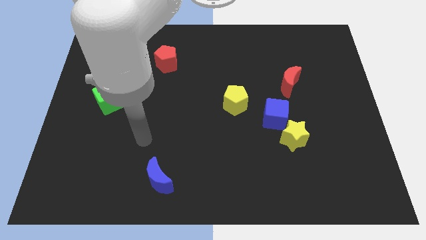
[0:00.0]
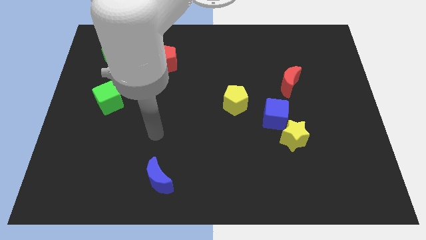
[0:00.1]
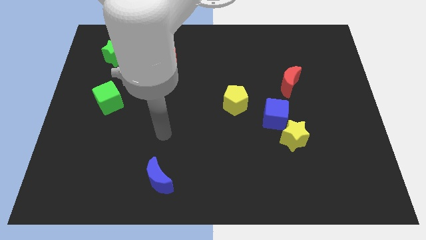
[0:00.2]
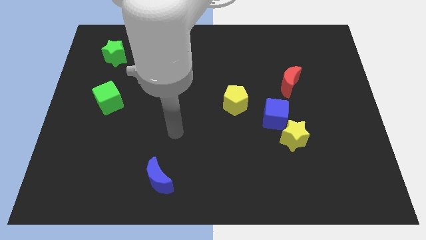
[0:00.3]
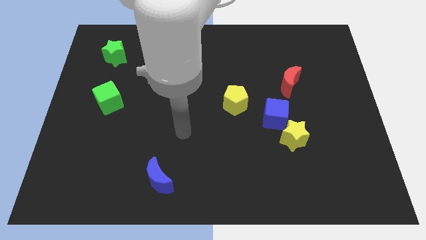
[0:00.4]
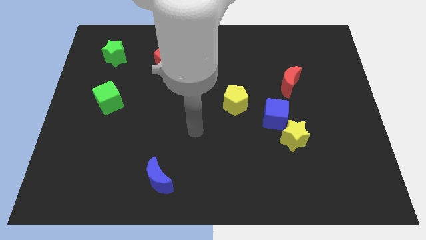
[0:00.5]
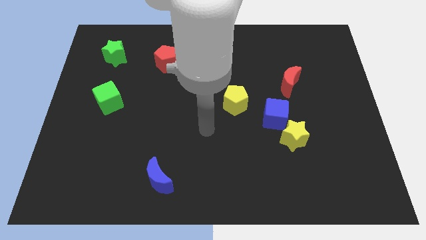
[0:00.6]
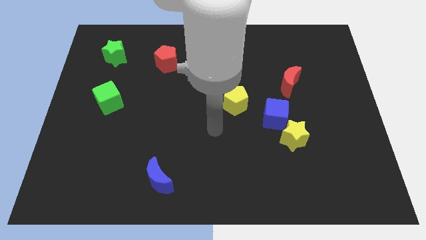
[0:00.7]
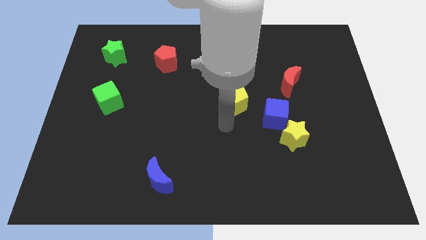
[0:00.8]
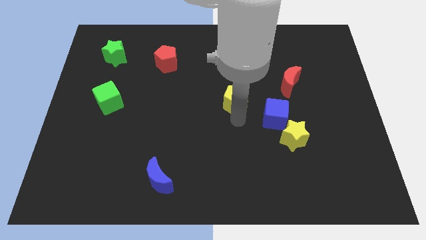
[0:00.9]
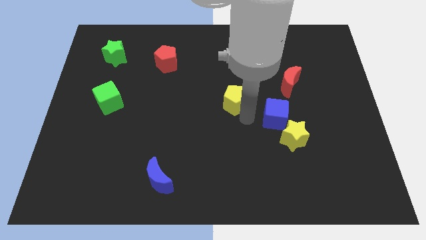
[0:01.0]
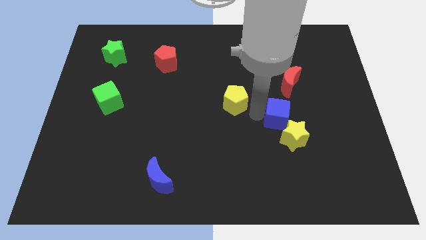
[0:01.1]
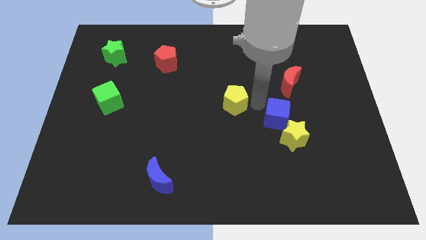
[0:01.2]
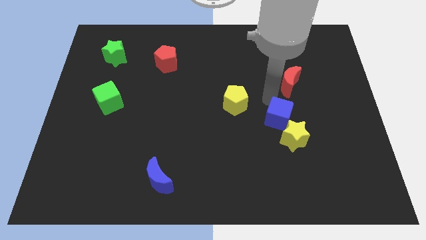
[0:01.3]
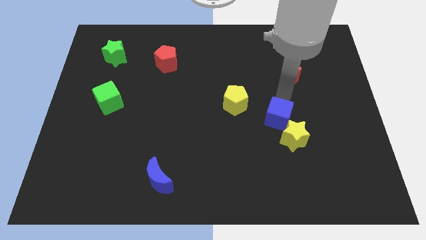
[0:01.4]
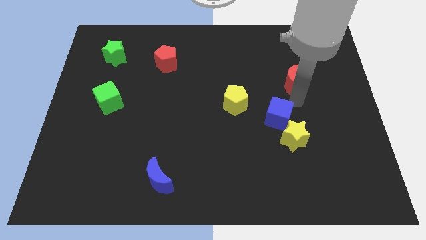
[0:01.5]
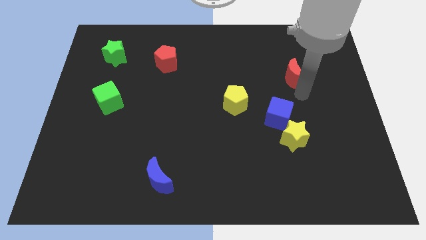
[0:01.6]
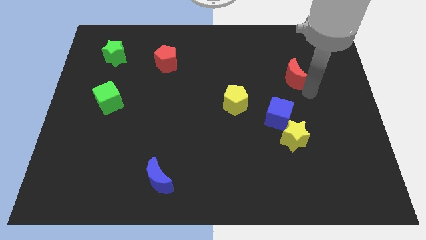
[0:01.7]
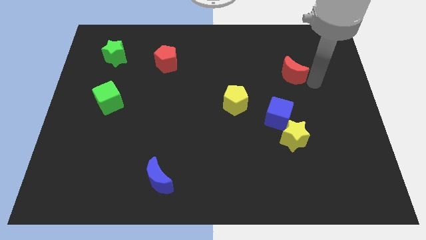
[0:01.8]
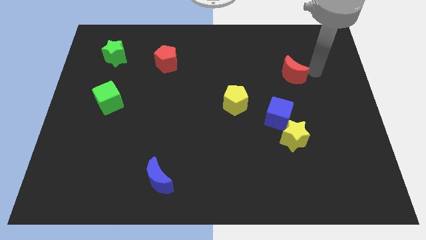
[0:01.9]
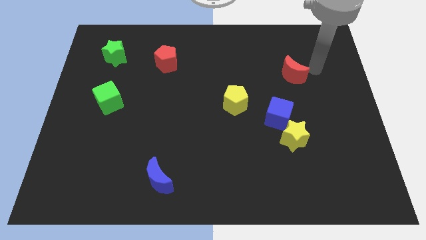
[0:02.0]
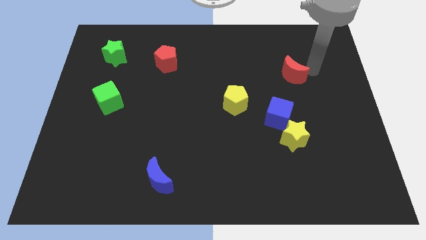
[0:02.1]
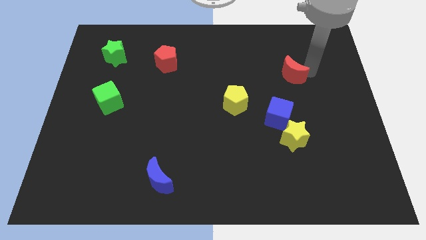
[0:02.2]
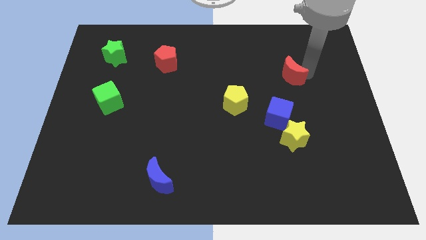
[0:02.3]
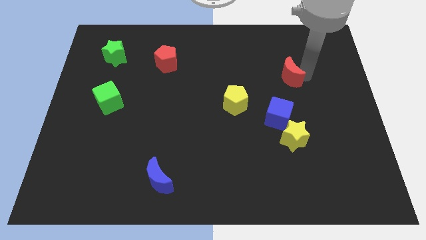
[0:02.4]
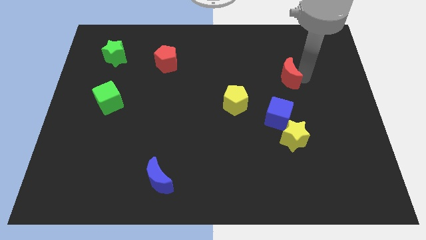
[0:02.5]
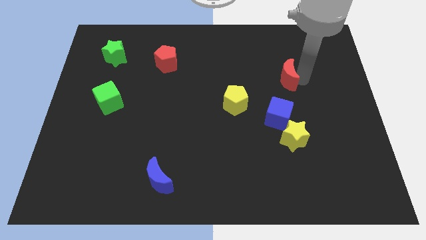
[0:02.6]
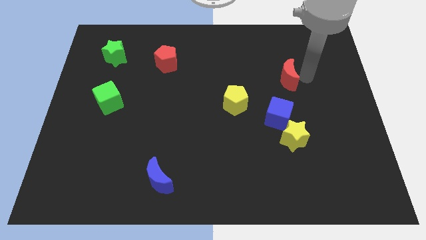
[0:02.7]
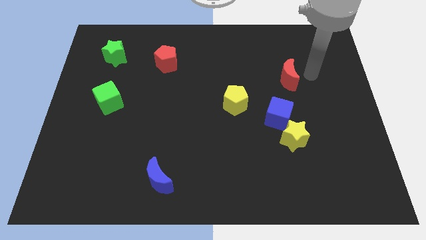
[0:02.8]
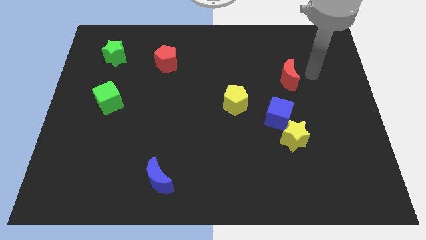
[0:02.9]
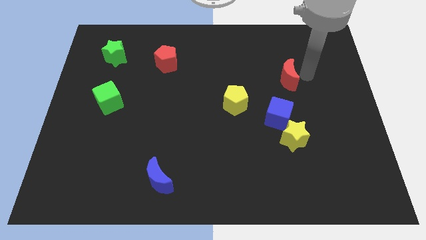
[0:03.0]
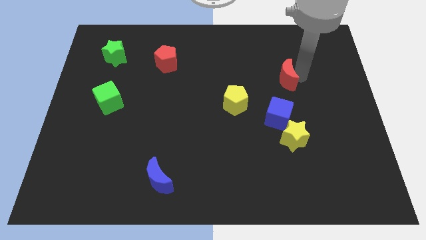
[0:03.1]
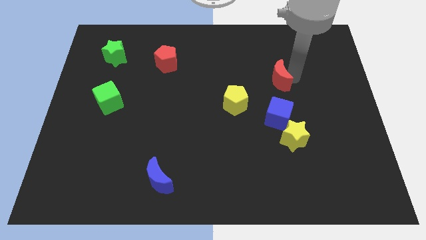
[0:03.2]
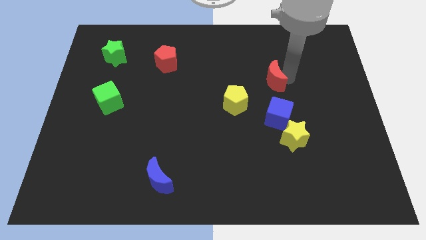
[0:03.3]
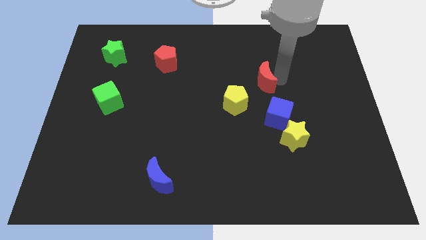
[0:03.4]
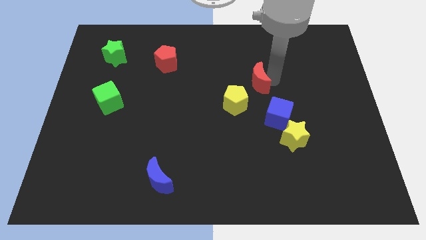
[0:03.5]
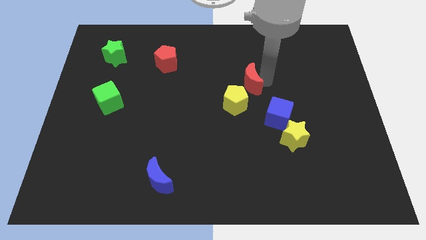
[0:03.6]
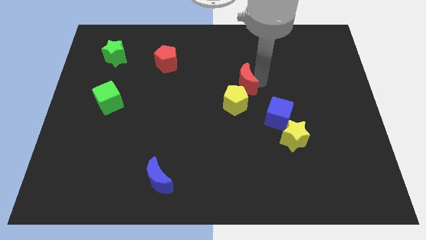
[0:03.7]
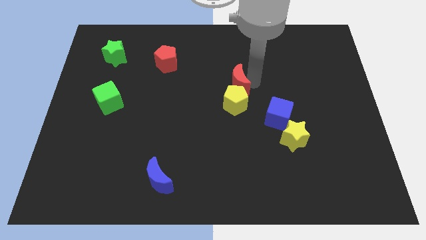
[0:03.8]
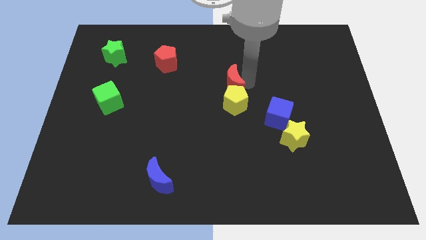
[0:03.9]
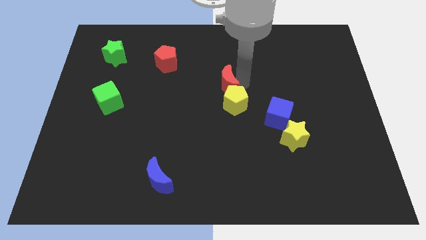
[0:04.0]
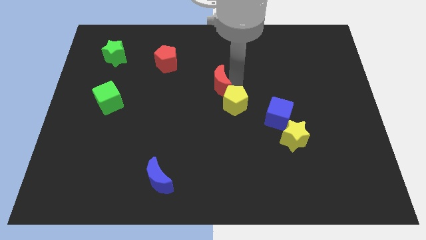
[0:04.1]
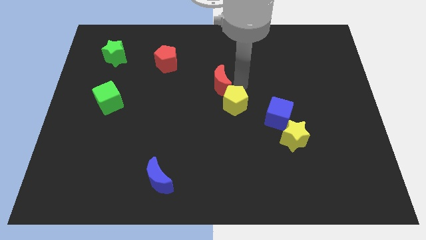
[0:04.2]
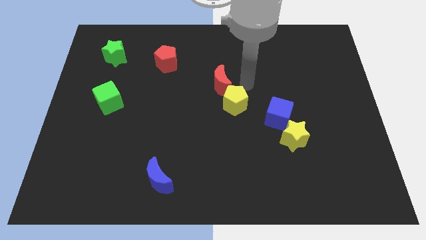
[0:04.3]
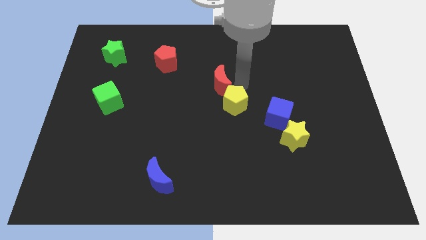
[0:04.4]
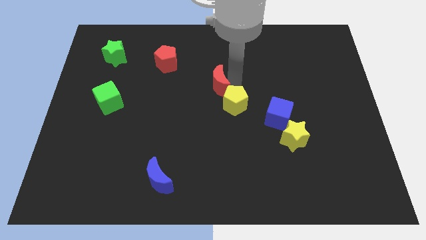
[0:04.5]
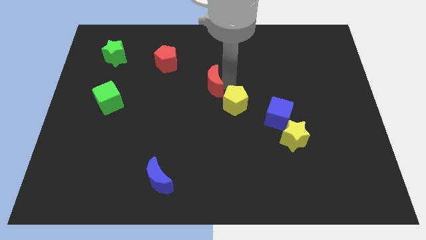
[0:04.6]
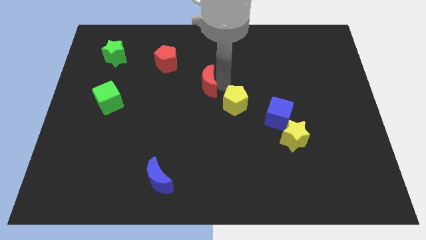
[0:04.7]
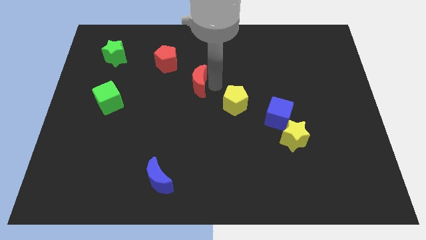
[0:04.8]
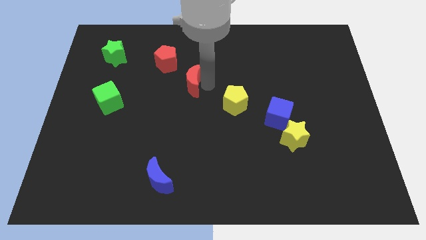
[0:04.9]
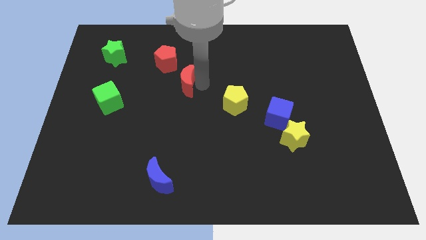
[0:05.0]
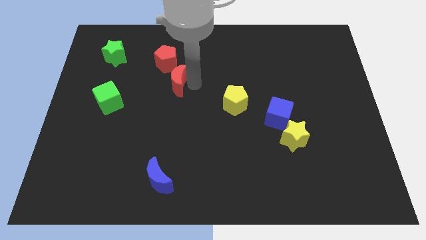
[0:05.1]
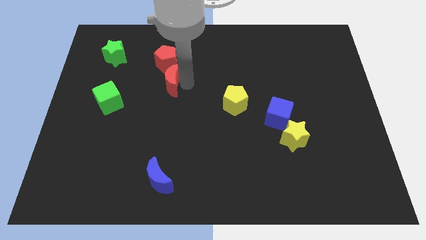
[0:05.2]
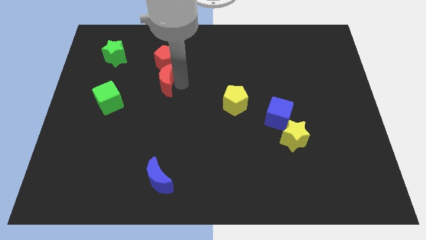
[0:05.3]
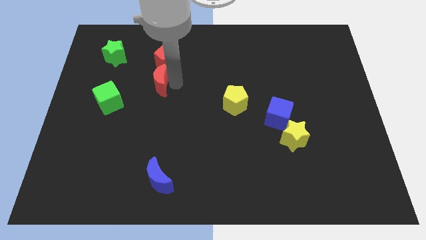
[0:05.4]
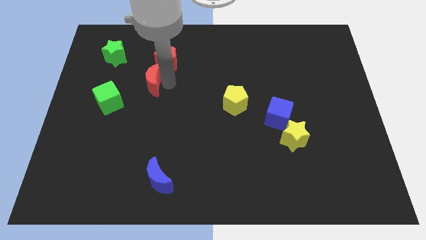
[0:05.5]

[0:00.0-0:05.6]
put the red moon diagonally up and to the right of the green cube

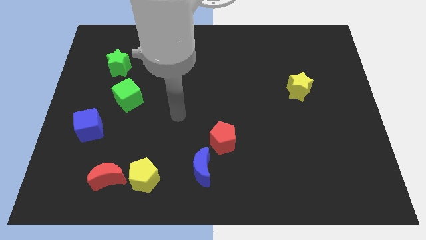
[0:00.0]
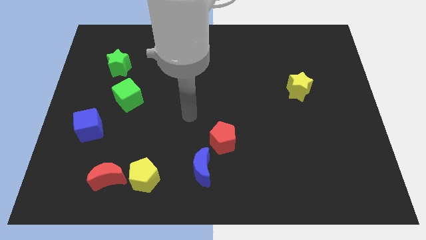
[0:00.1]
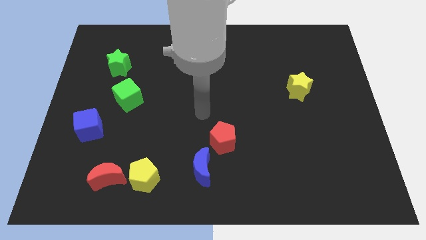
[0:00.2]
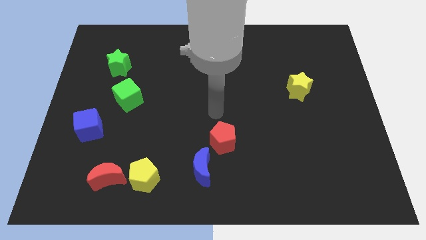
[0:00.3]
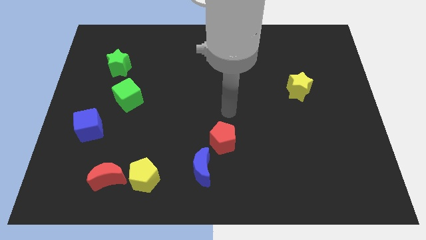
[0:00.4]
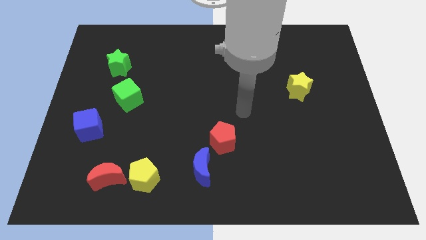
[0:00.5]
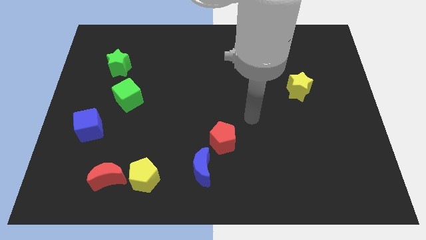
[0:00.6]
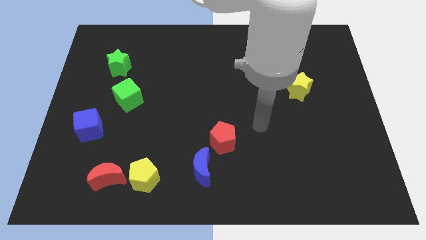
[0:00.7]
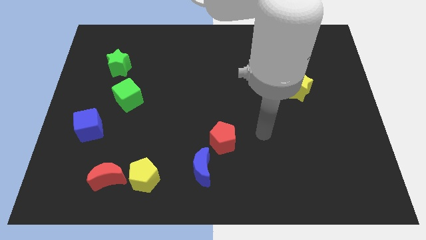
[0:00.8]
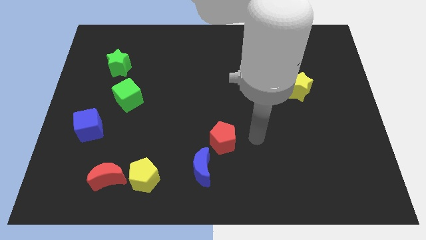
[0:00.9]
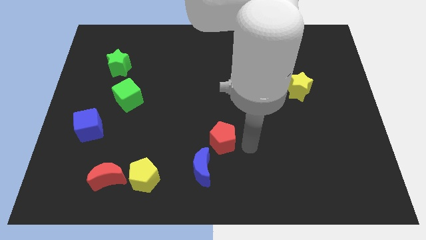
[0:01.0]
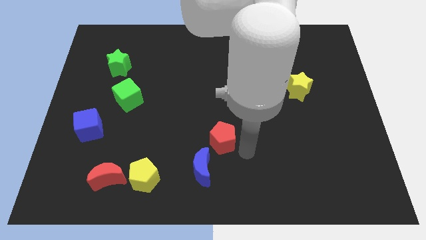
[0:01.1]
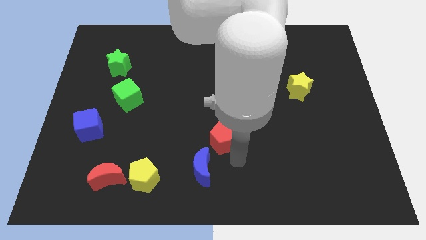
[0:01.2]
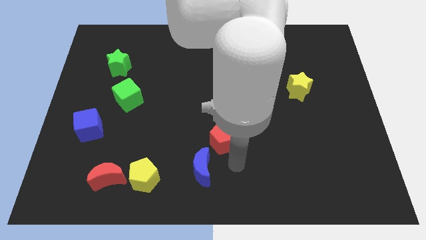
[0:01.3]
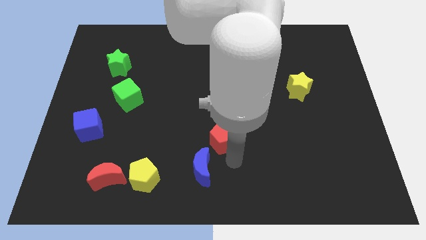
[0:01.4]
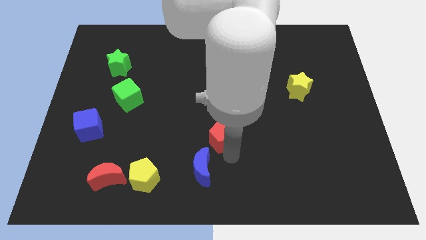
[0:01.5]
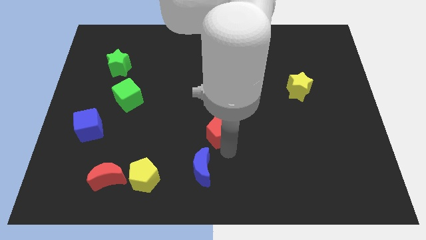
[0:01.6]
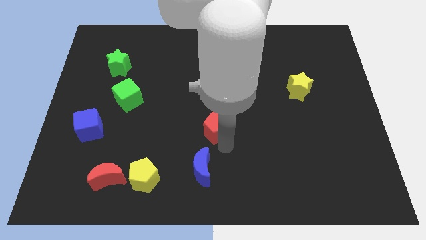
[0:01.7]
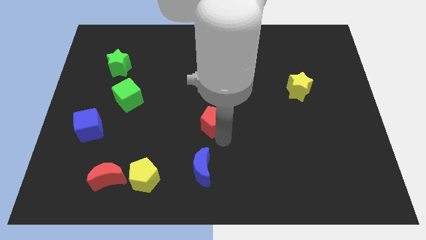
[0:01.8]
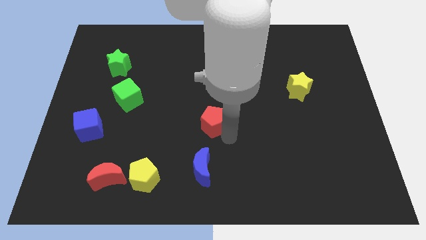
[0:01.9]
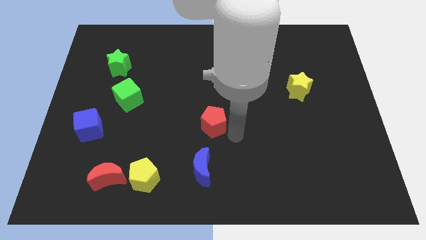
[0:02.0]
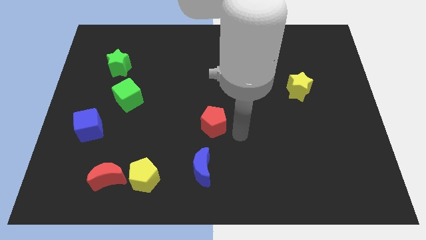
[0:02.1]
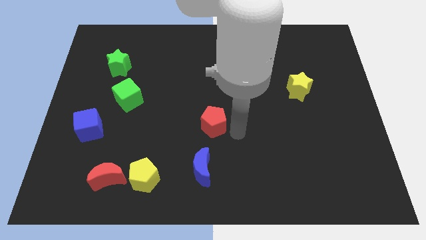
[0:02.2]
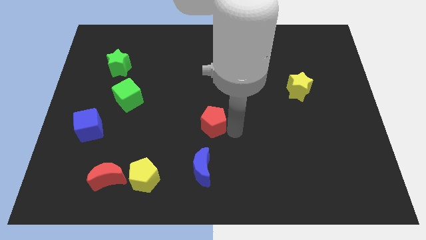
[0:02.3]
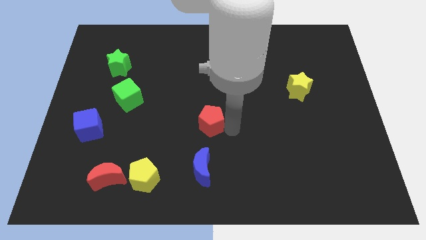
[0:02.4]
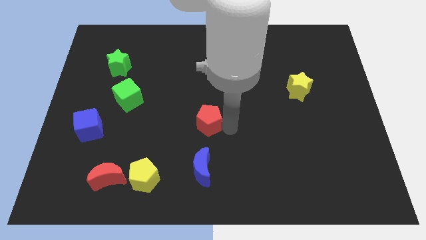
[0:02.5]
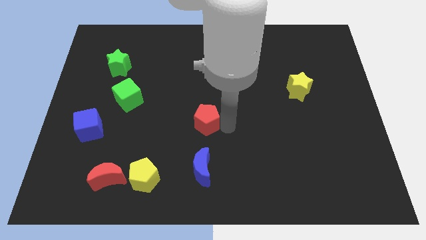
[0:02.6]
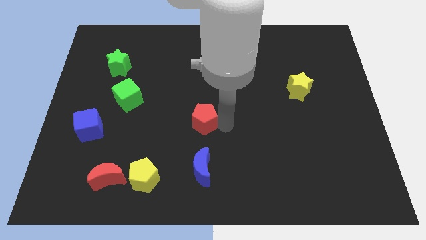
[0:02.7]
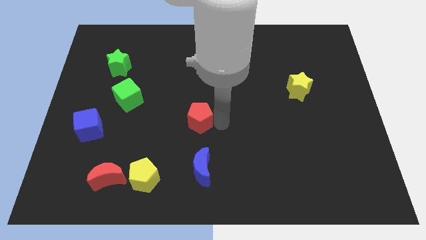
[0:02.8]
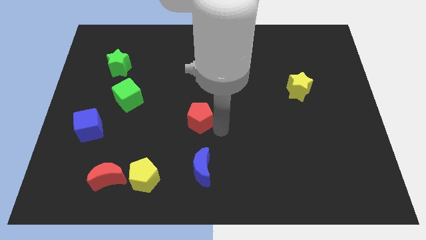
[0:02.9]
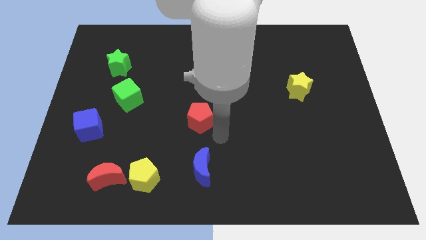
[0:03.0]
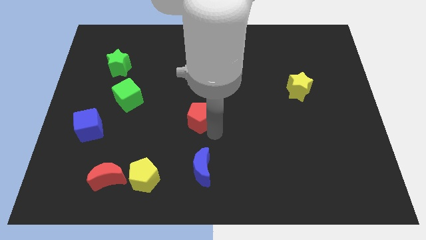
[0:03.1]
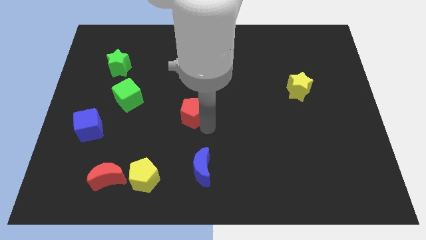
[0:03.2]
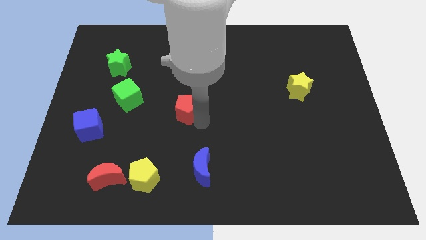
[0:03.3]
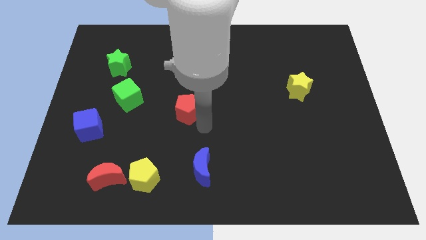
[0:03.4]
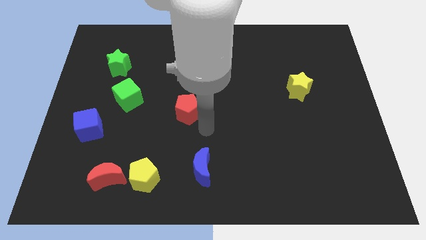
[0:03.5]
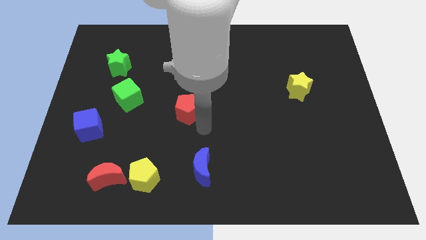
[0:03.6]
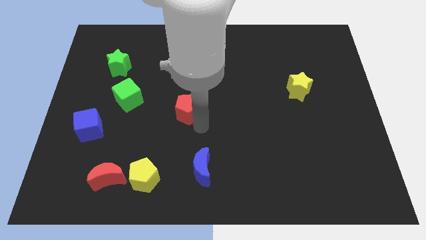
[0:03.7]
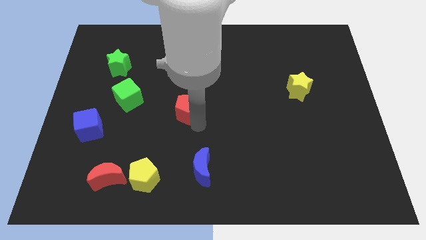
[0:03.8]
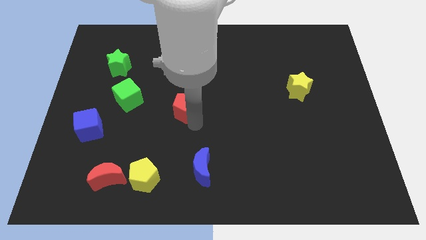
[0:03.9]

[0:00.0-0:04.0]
move the red pentagon to the right side of the green cube
